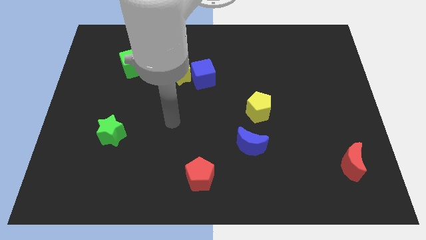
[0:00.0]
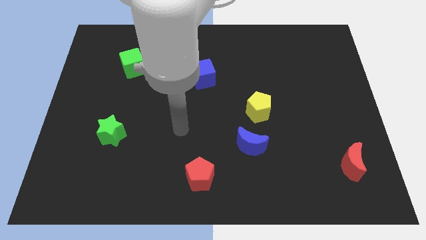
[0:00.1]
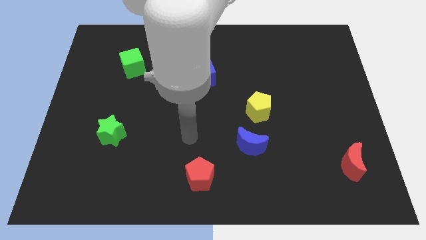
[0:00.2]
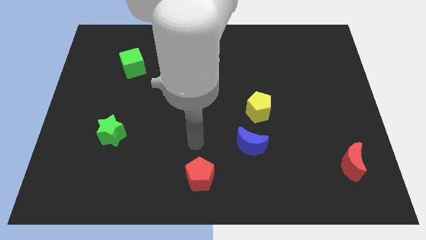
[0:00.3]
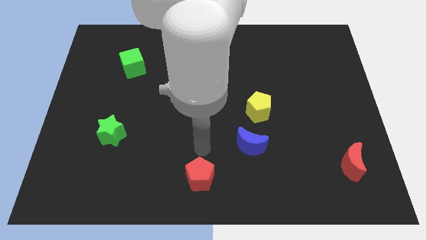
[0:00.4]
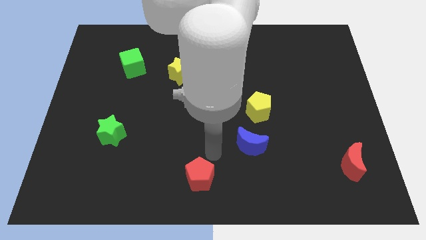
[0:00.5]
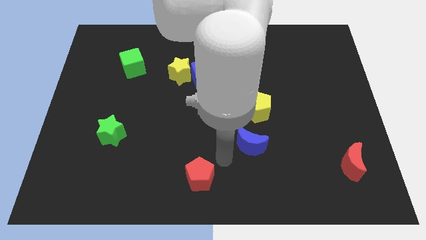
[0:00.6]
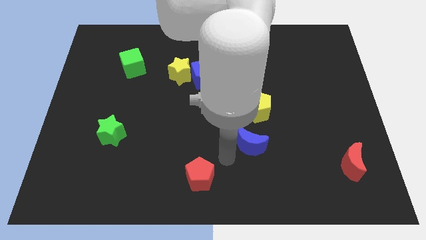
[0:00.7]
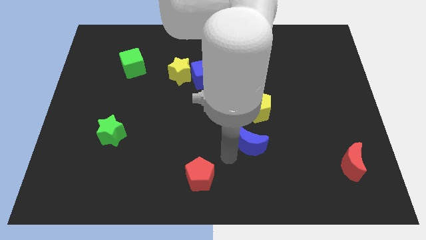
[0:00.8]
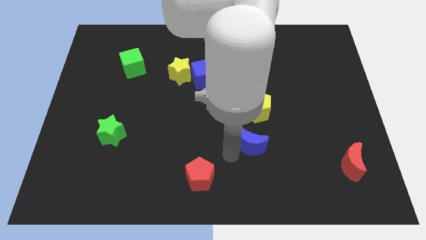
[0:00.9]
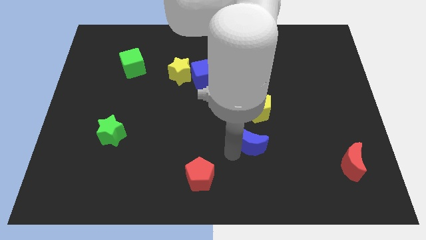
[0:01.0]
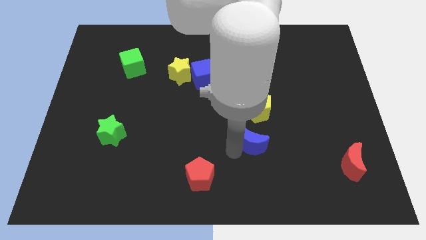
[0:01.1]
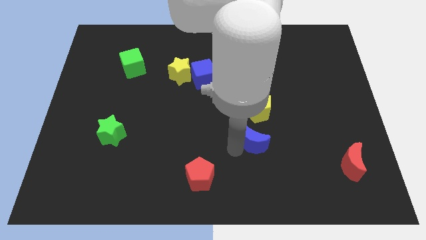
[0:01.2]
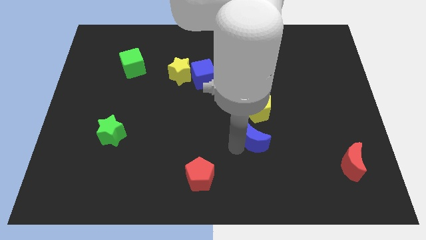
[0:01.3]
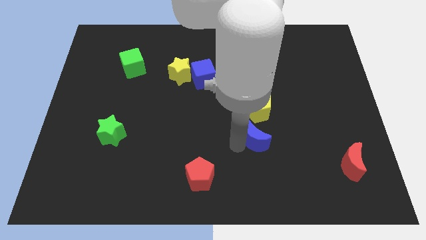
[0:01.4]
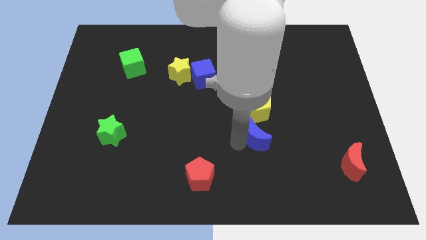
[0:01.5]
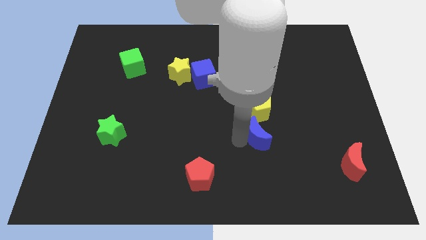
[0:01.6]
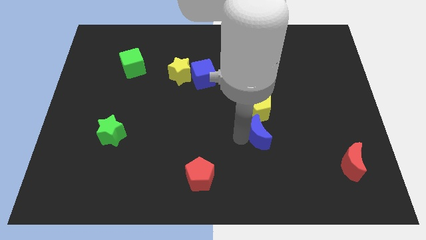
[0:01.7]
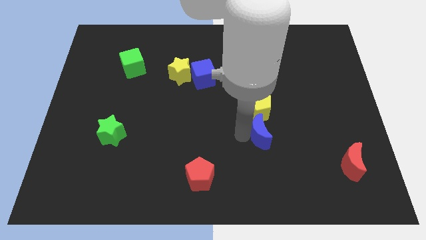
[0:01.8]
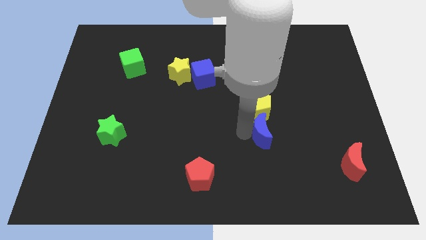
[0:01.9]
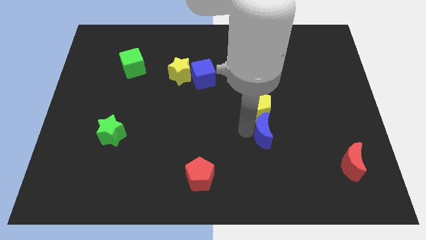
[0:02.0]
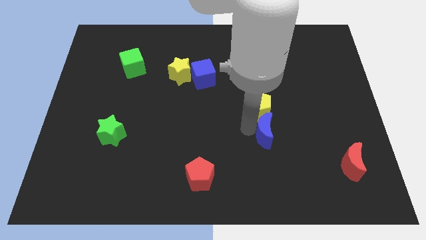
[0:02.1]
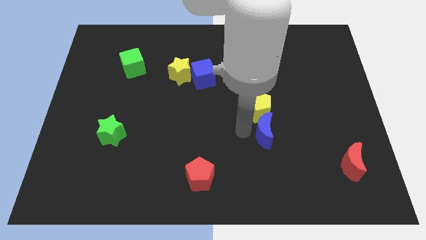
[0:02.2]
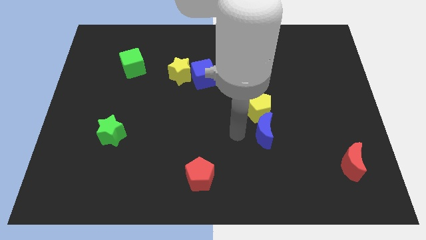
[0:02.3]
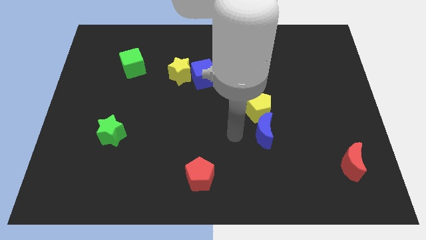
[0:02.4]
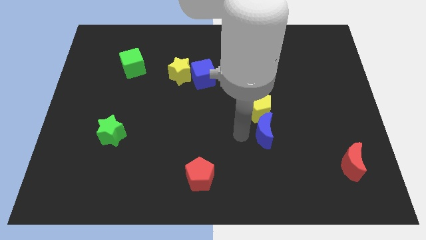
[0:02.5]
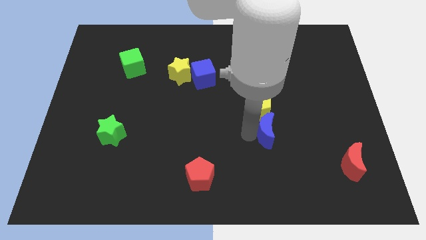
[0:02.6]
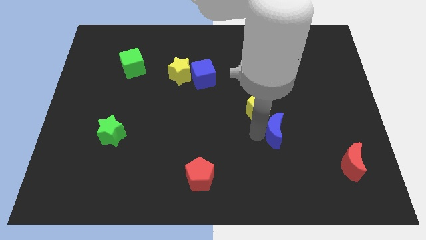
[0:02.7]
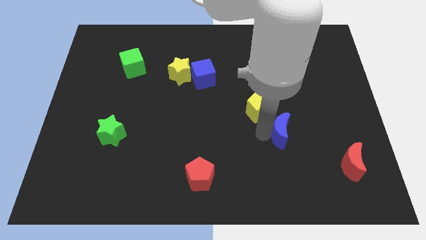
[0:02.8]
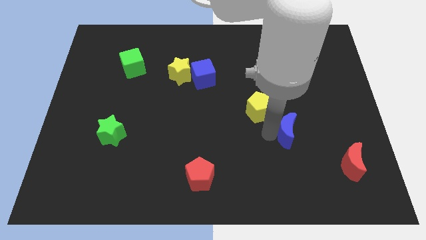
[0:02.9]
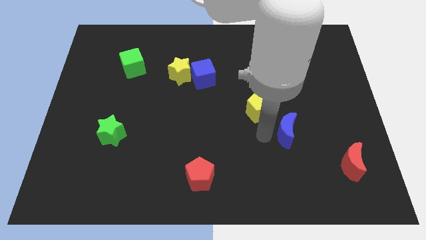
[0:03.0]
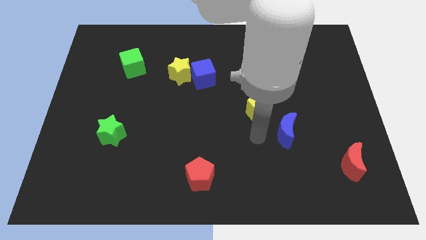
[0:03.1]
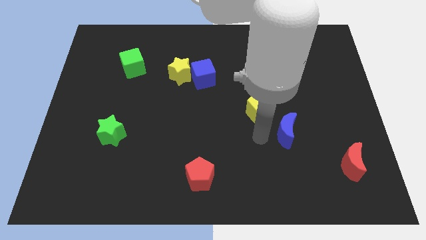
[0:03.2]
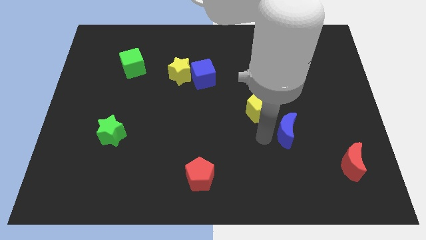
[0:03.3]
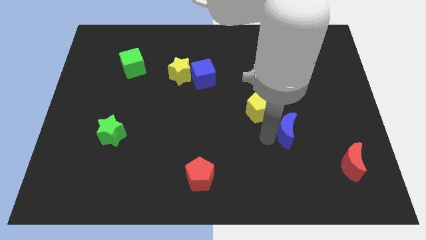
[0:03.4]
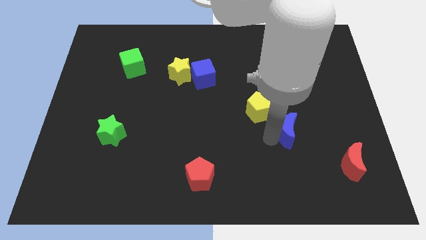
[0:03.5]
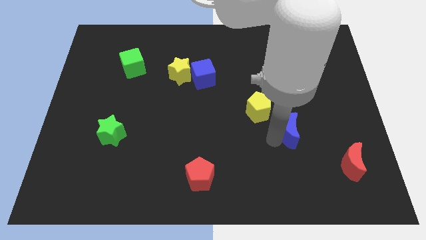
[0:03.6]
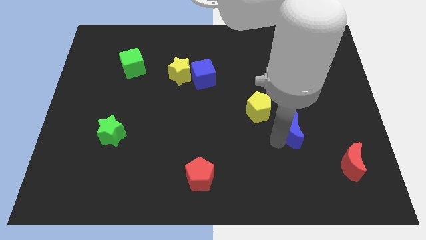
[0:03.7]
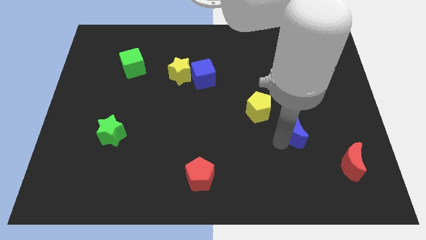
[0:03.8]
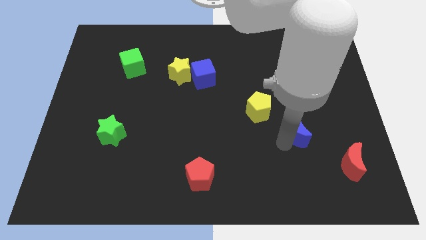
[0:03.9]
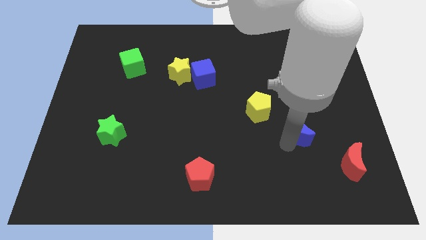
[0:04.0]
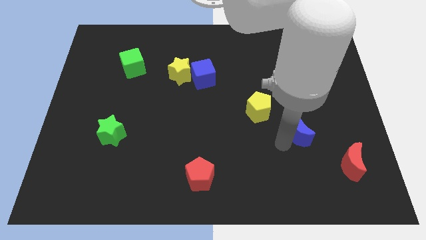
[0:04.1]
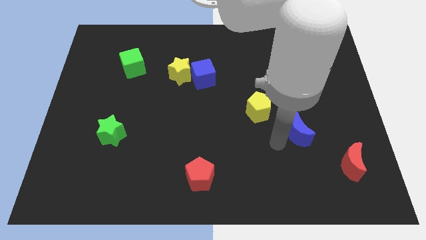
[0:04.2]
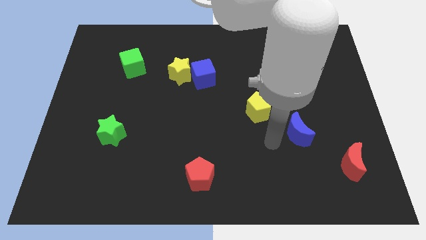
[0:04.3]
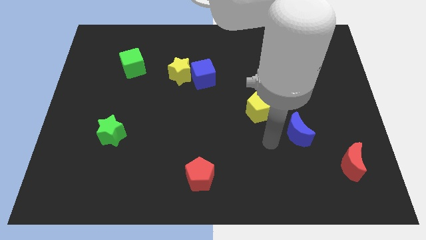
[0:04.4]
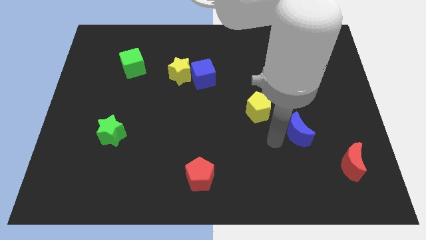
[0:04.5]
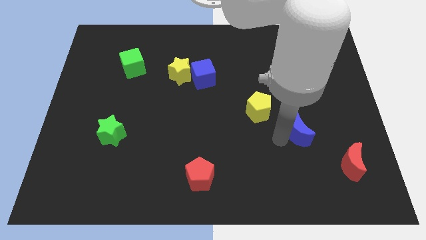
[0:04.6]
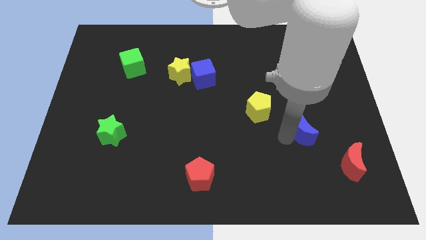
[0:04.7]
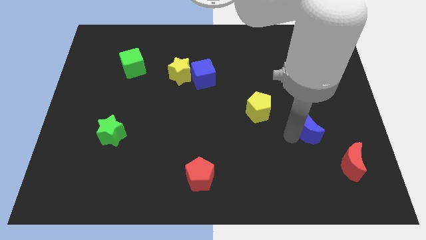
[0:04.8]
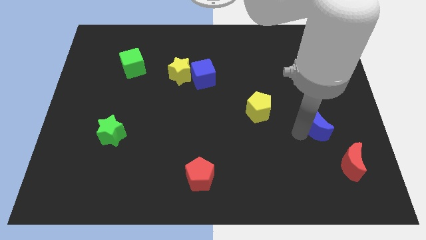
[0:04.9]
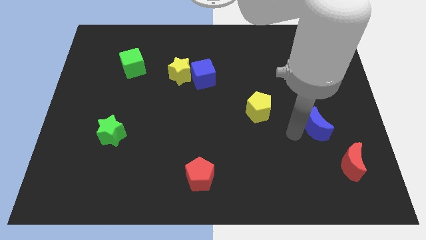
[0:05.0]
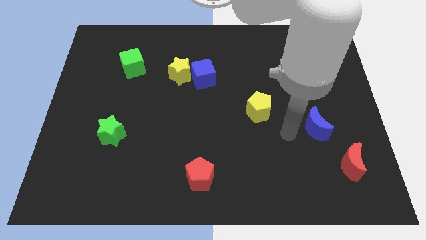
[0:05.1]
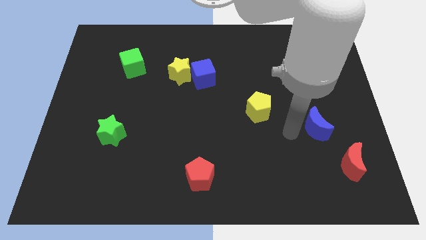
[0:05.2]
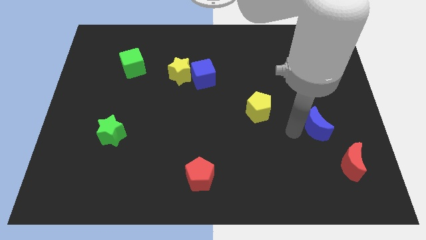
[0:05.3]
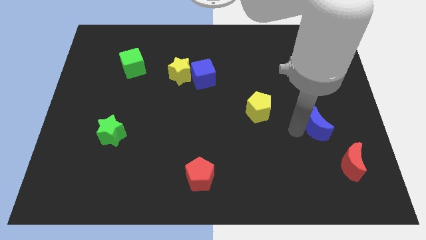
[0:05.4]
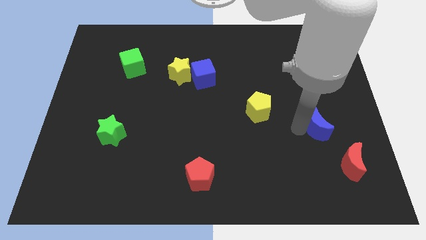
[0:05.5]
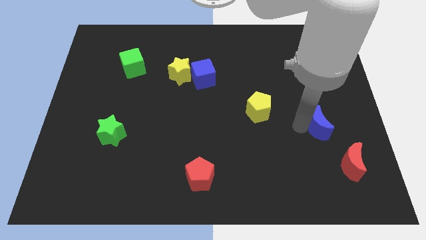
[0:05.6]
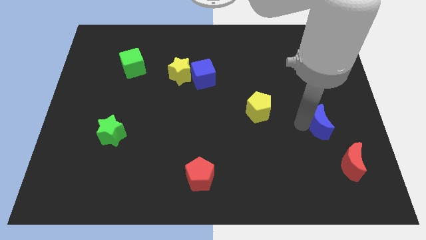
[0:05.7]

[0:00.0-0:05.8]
move the blue moon to the top of the red moon

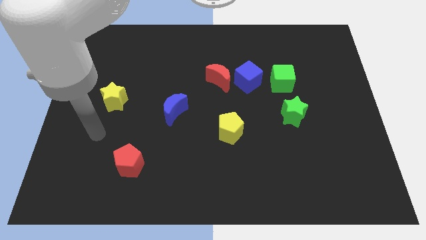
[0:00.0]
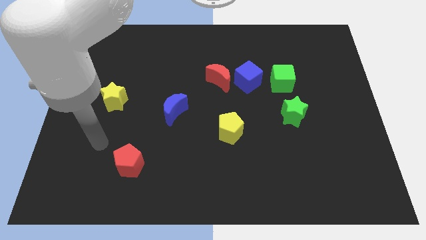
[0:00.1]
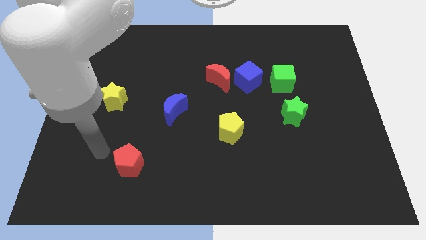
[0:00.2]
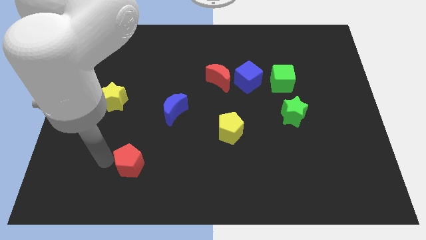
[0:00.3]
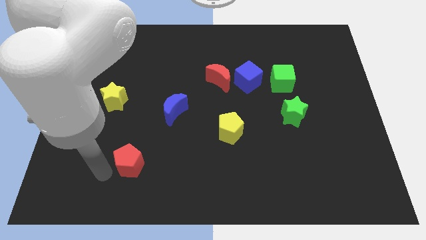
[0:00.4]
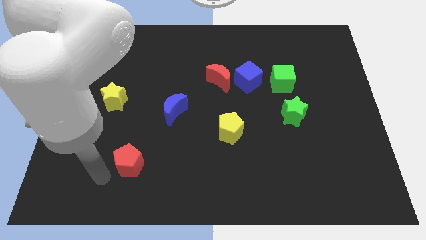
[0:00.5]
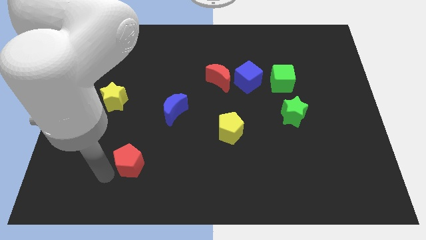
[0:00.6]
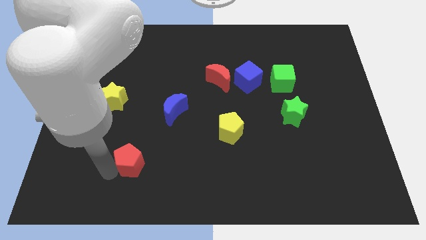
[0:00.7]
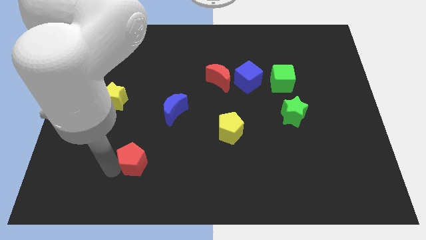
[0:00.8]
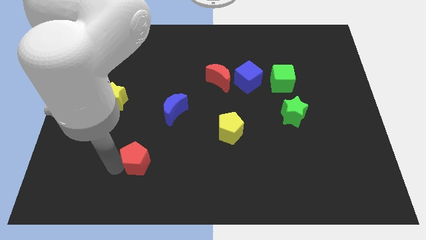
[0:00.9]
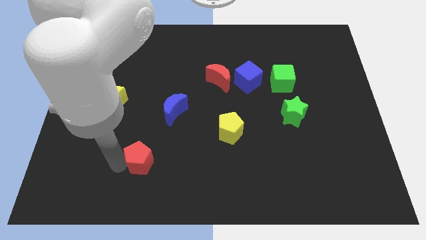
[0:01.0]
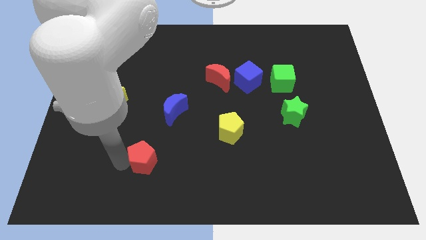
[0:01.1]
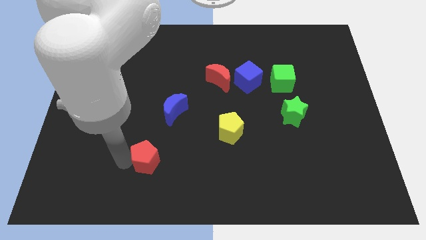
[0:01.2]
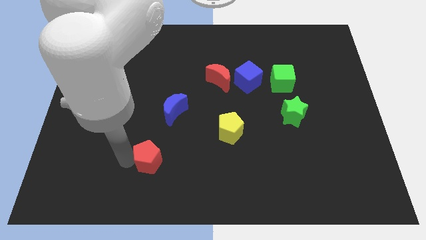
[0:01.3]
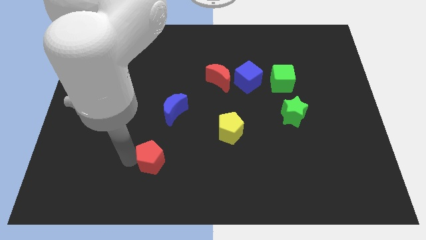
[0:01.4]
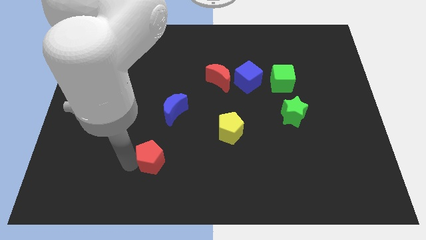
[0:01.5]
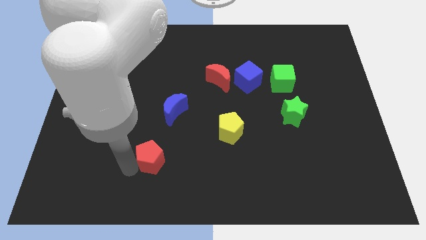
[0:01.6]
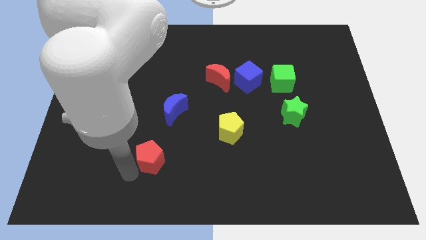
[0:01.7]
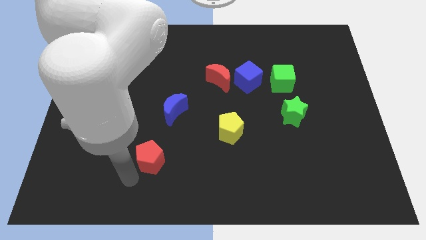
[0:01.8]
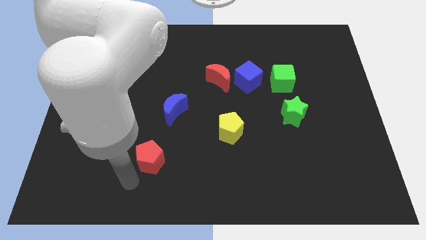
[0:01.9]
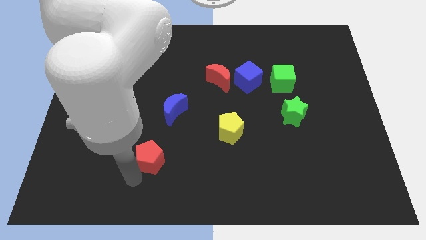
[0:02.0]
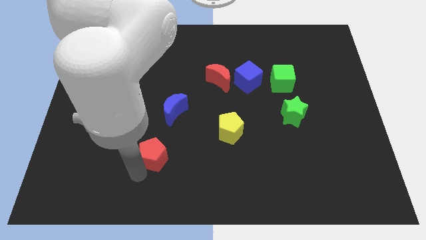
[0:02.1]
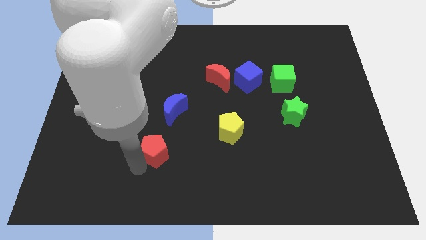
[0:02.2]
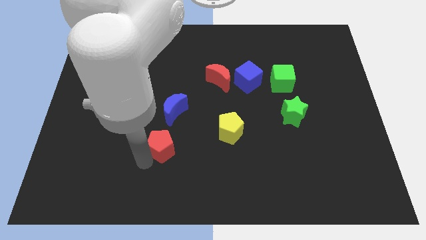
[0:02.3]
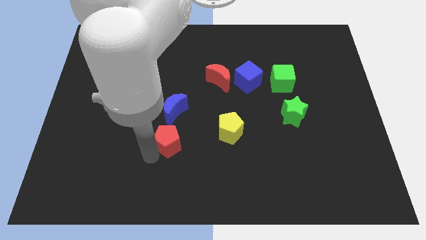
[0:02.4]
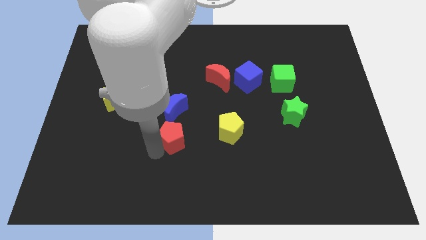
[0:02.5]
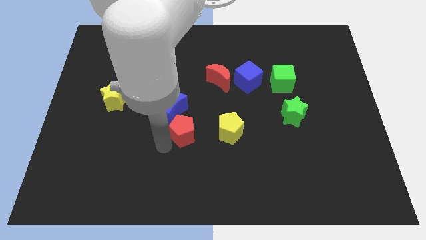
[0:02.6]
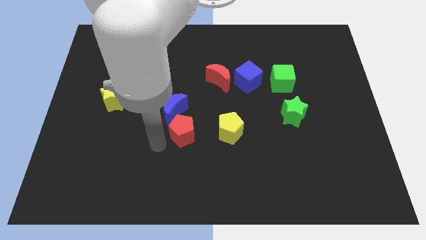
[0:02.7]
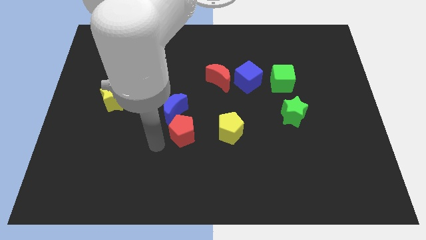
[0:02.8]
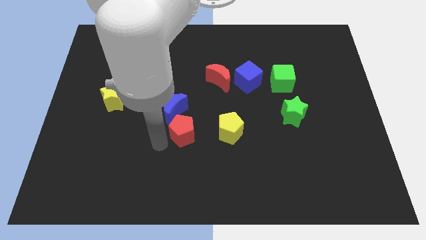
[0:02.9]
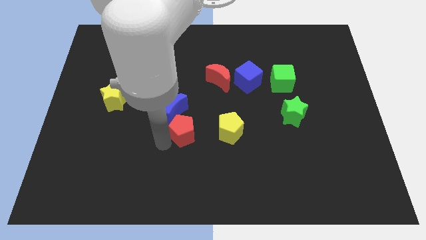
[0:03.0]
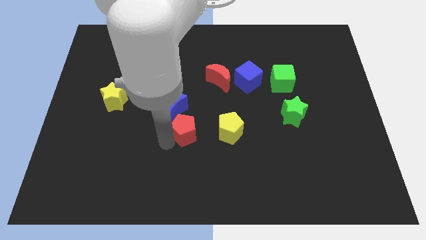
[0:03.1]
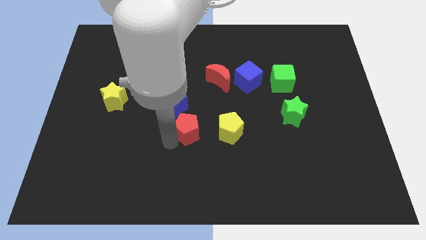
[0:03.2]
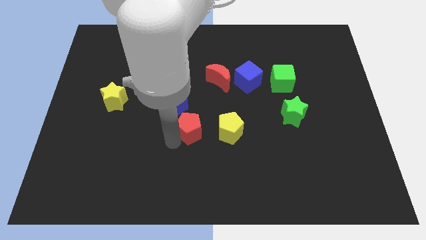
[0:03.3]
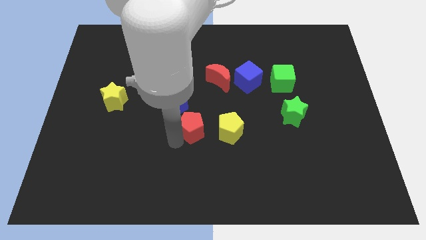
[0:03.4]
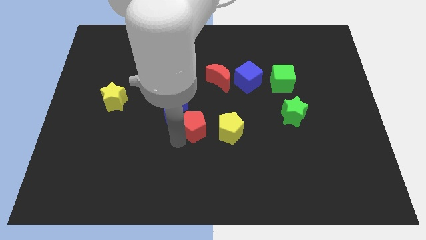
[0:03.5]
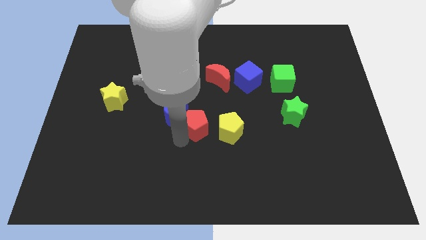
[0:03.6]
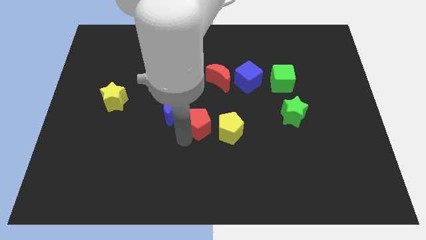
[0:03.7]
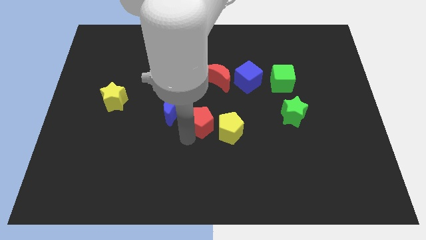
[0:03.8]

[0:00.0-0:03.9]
push the red pentagon to the bottom side of the red moon
